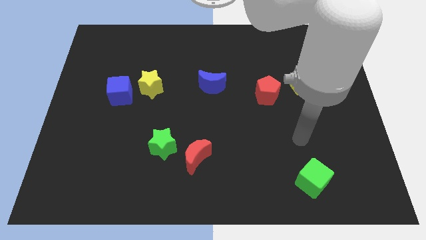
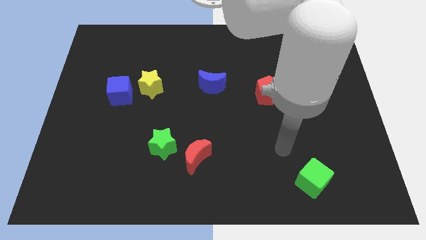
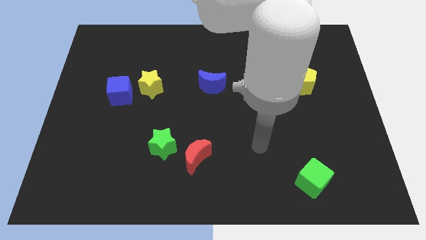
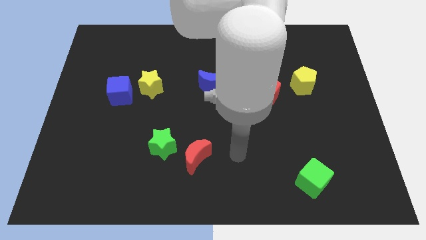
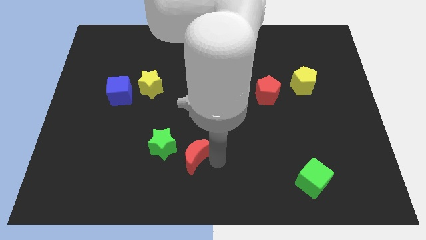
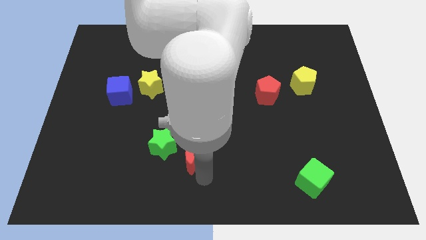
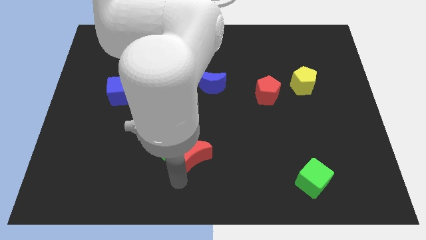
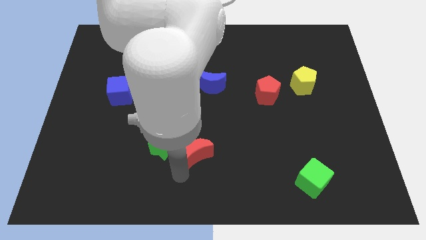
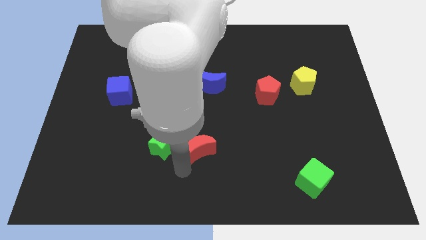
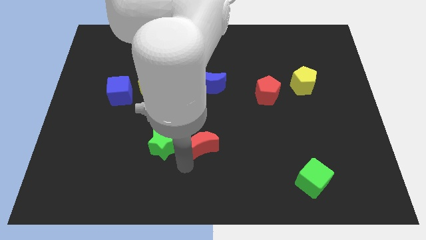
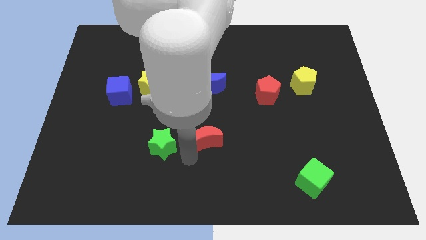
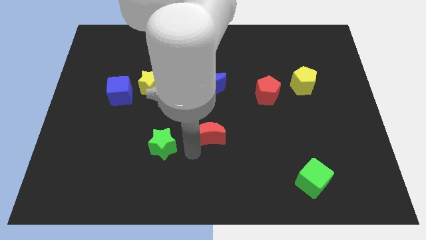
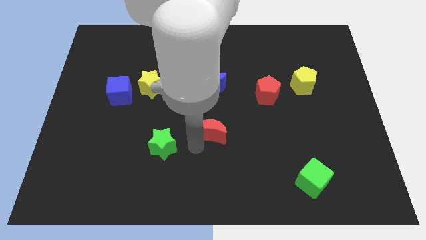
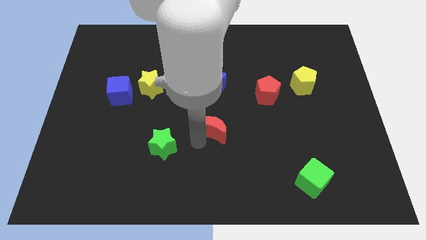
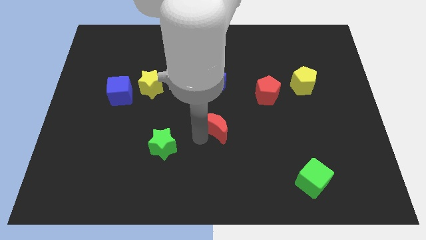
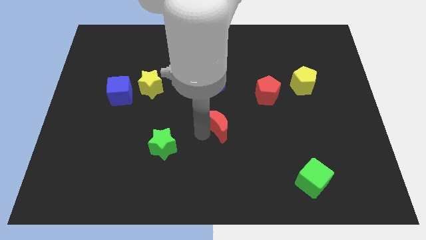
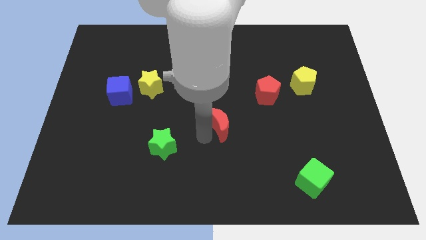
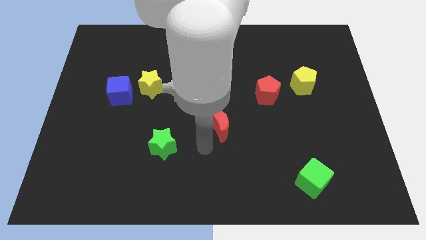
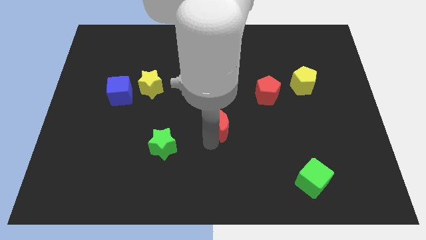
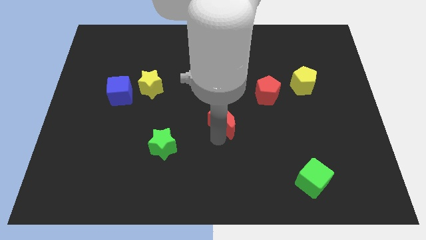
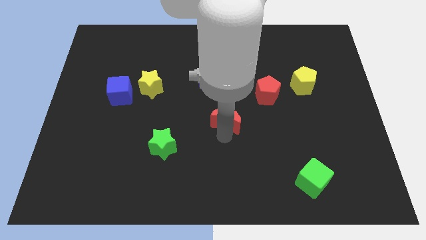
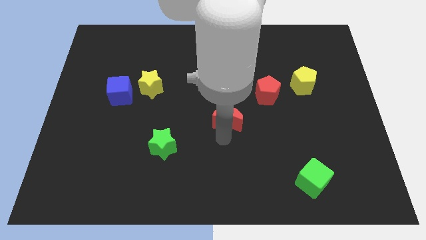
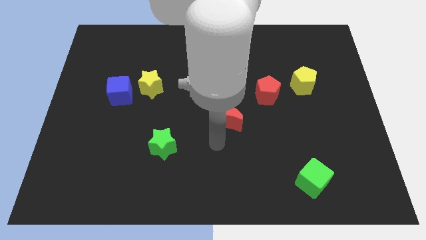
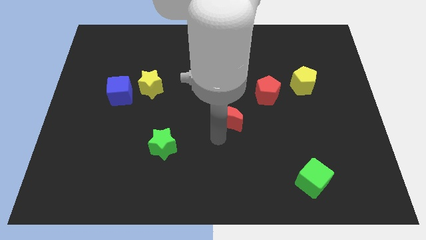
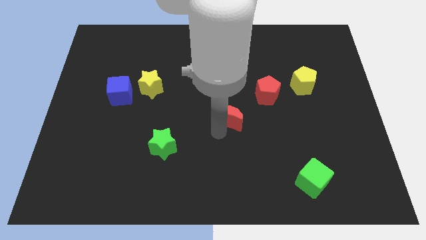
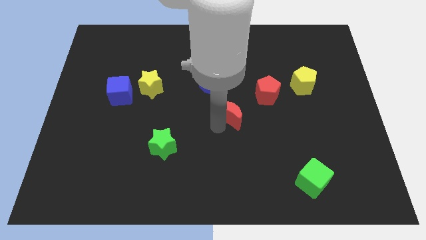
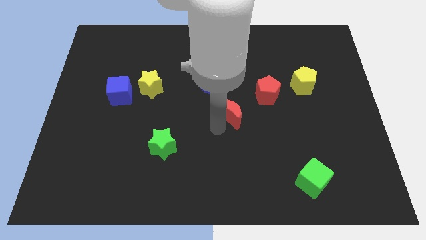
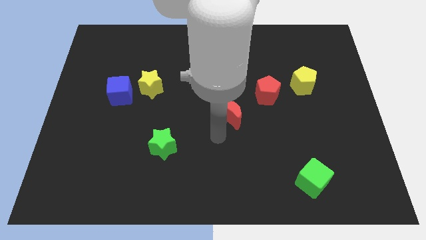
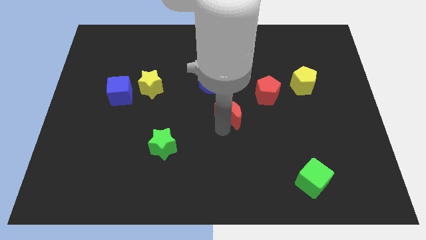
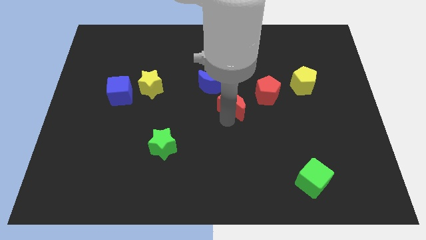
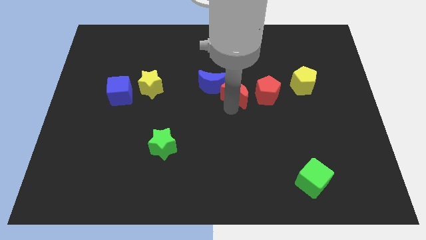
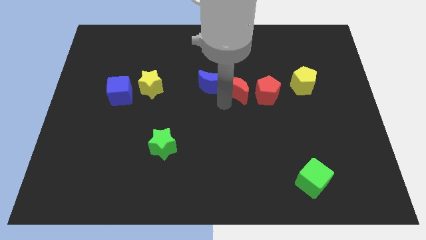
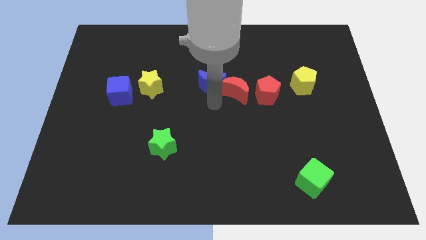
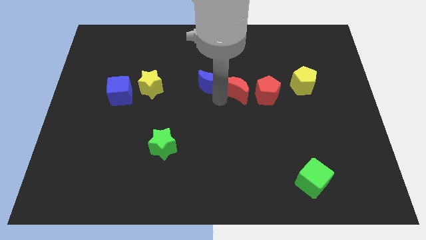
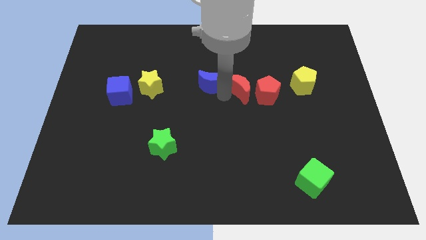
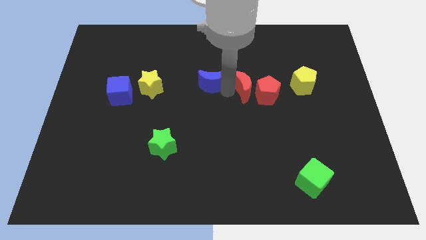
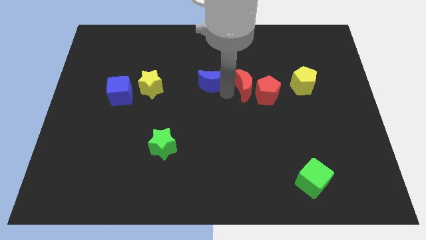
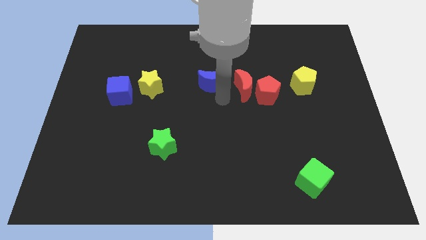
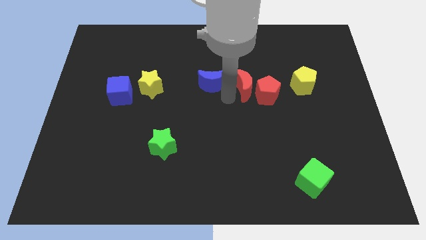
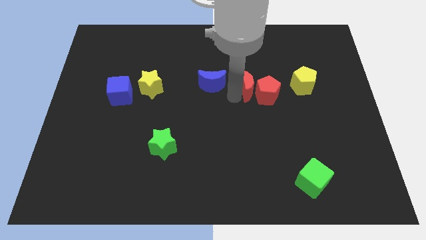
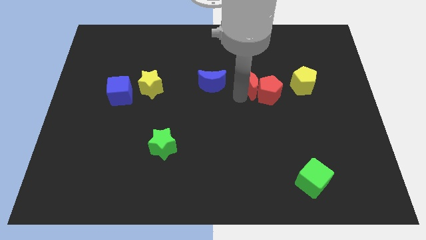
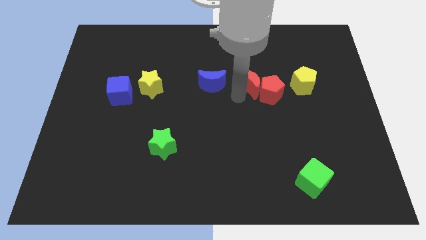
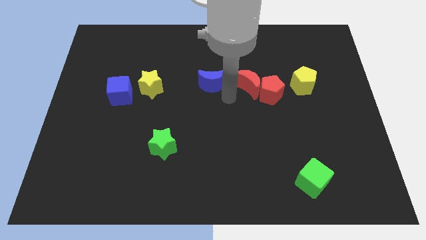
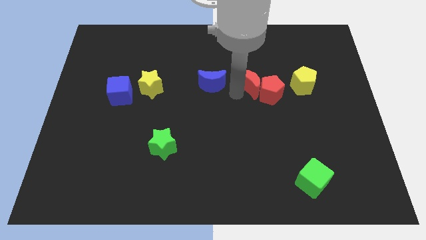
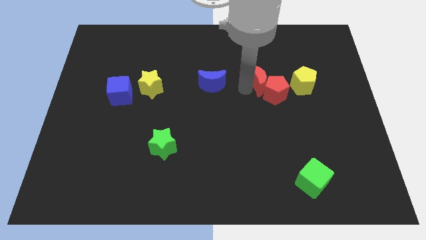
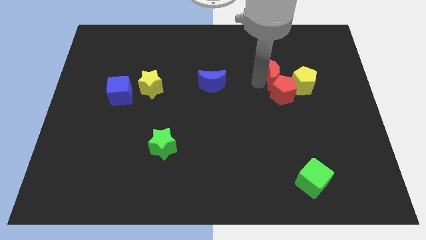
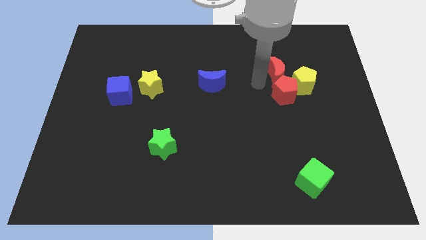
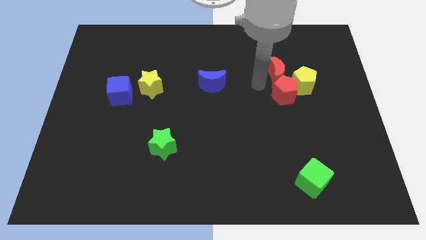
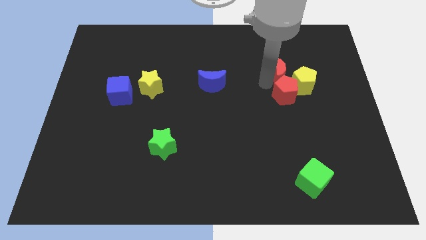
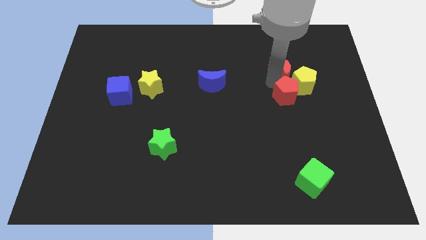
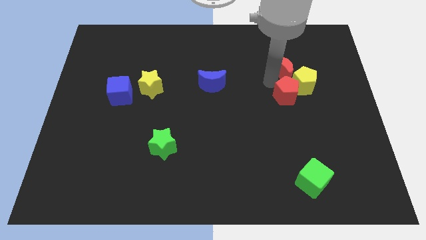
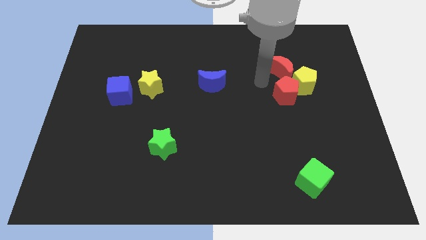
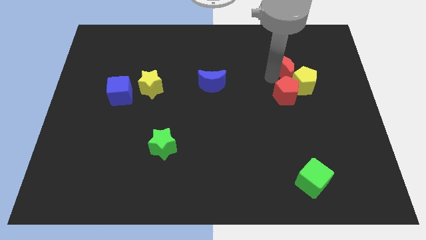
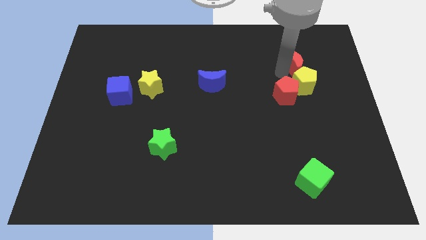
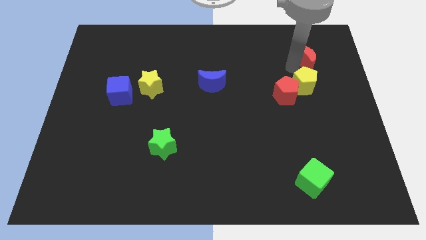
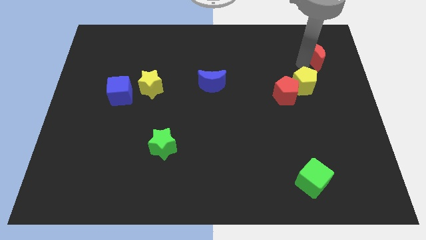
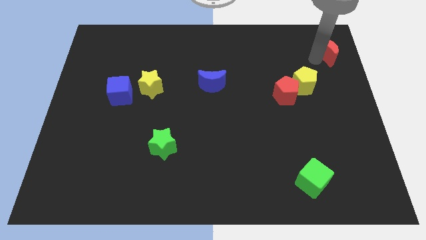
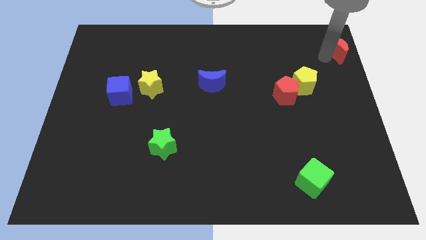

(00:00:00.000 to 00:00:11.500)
move the red moon to the top right corner
